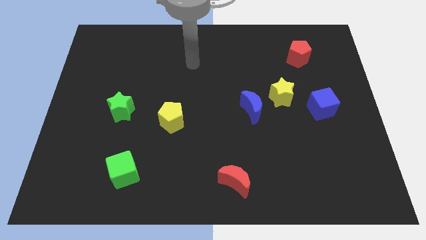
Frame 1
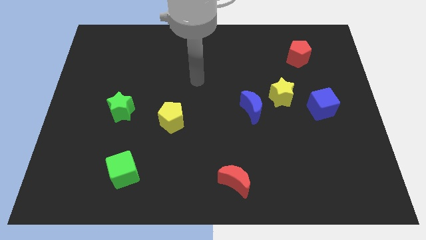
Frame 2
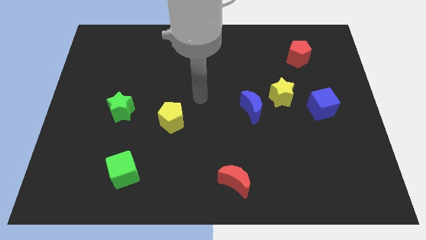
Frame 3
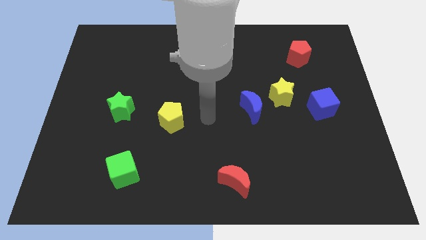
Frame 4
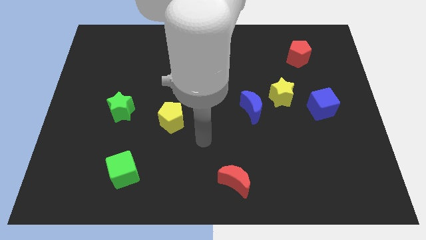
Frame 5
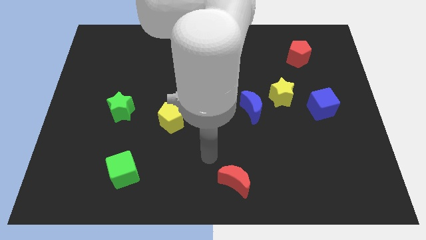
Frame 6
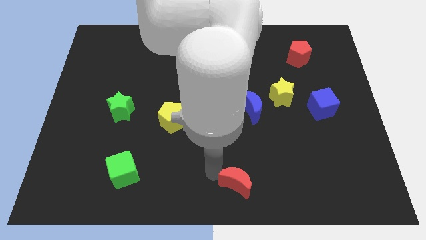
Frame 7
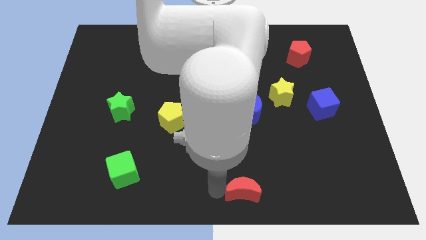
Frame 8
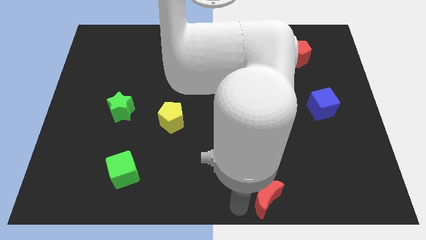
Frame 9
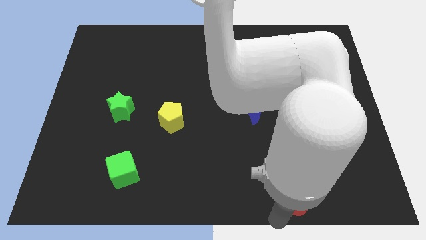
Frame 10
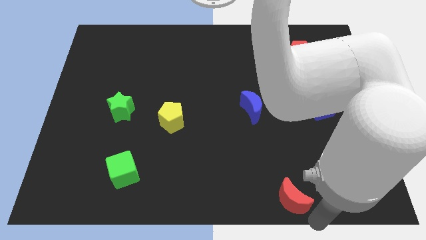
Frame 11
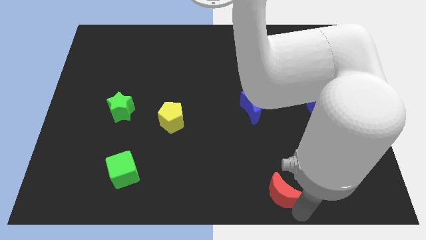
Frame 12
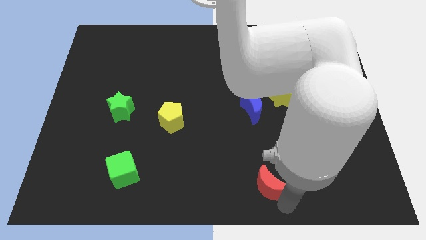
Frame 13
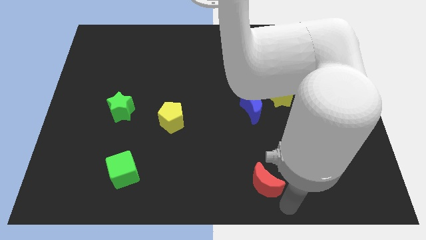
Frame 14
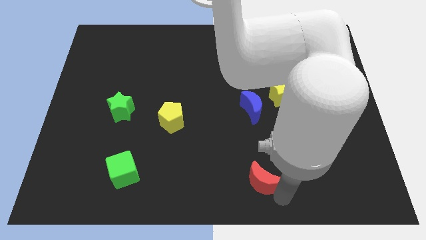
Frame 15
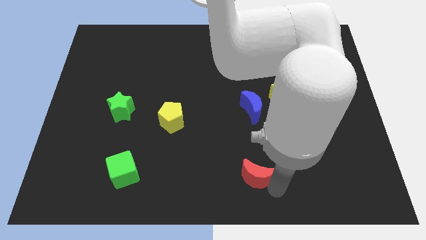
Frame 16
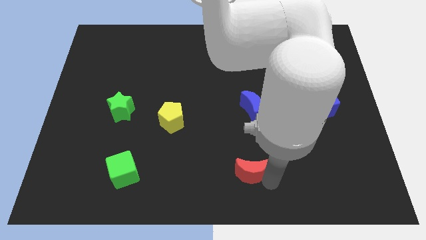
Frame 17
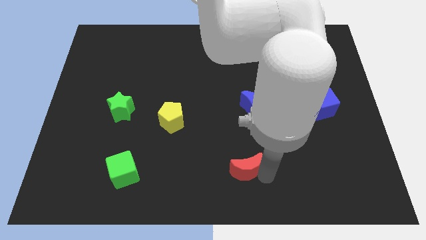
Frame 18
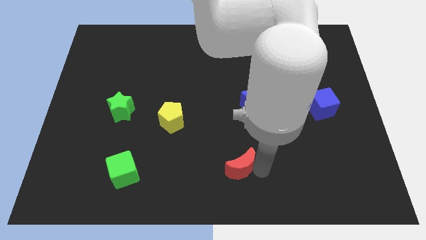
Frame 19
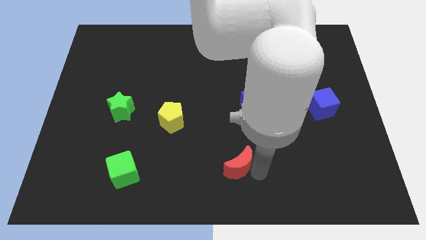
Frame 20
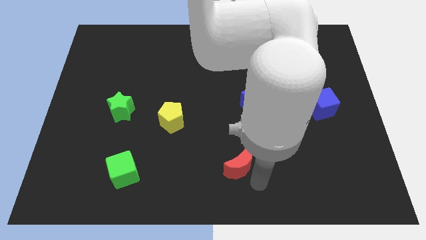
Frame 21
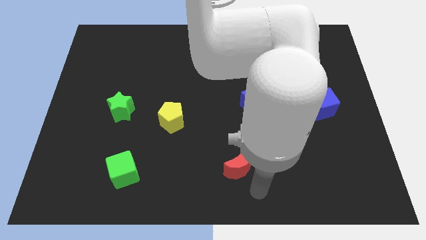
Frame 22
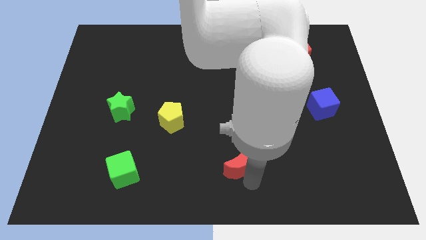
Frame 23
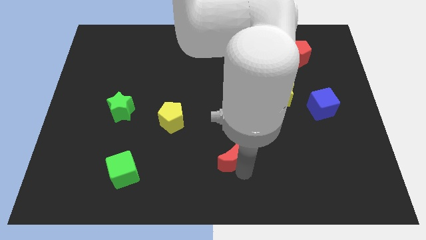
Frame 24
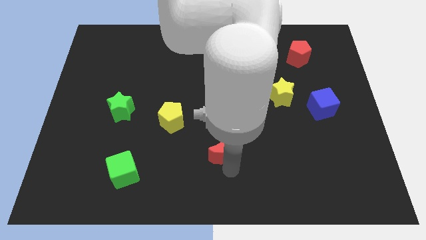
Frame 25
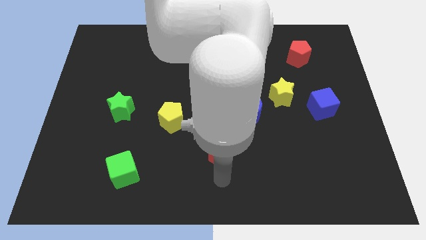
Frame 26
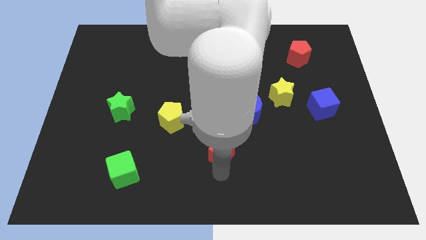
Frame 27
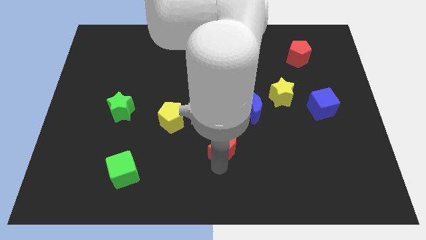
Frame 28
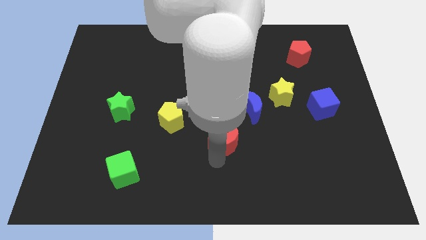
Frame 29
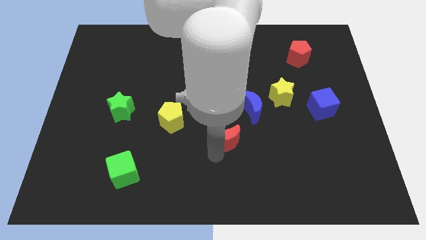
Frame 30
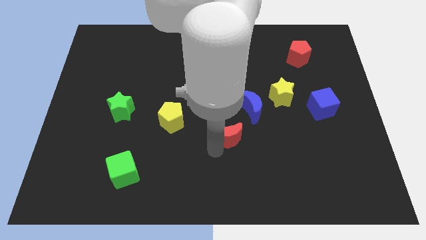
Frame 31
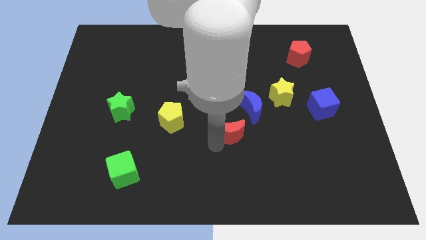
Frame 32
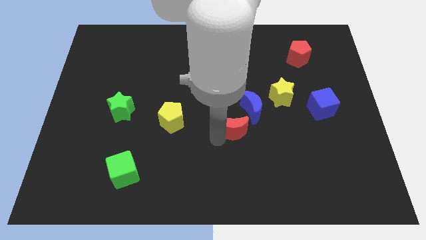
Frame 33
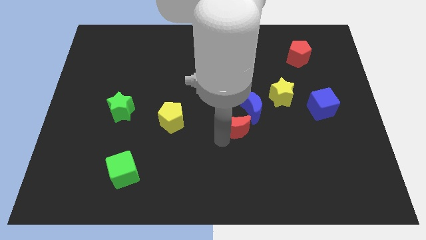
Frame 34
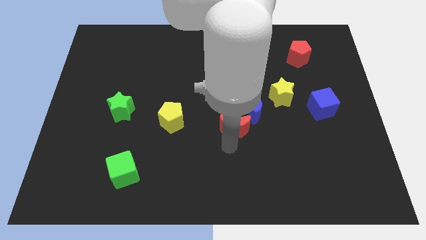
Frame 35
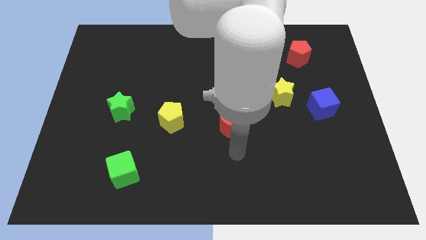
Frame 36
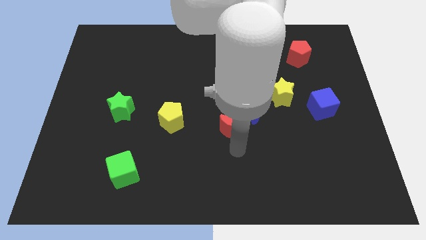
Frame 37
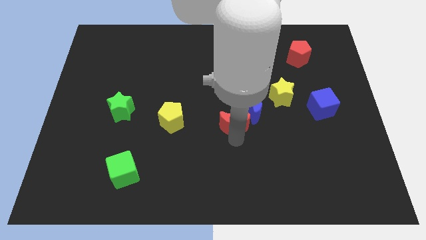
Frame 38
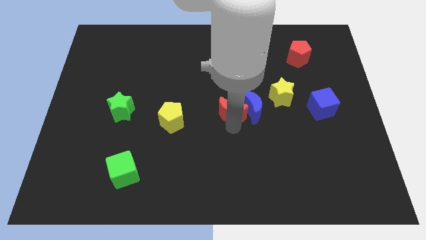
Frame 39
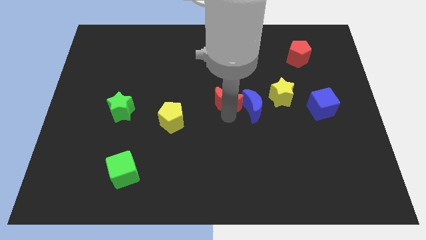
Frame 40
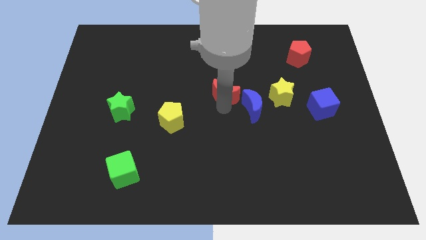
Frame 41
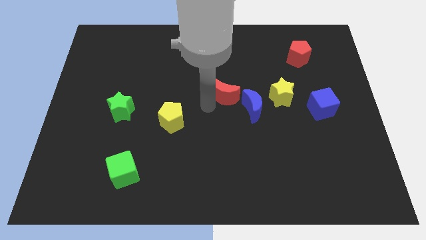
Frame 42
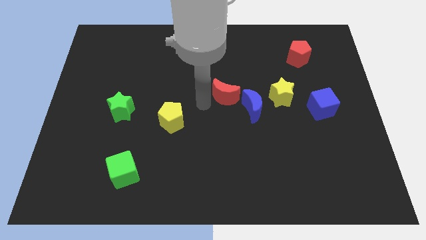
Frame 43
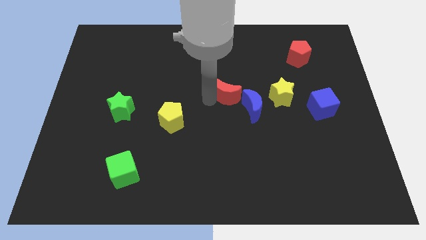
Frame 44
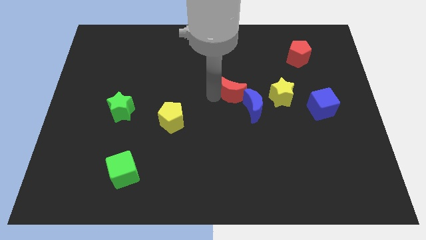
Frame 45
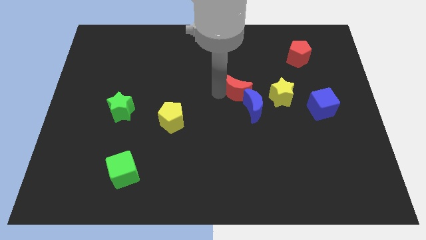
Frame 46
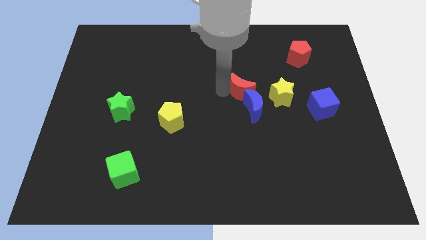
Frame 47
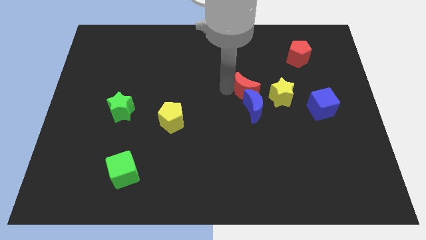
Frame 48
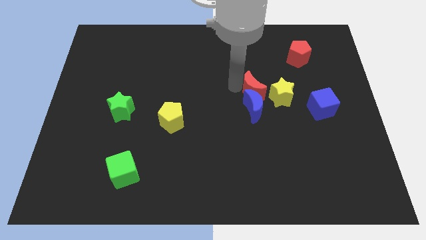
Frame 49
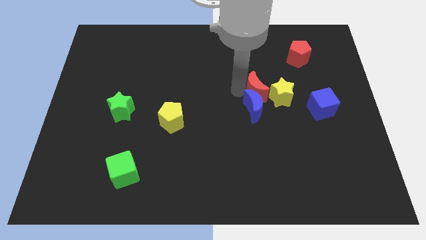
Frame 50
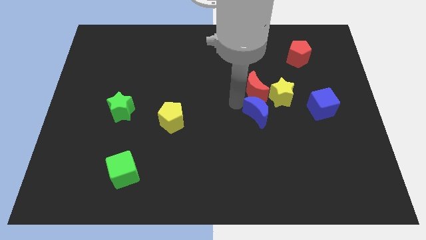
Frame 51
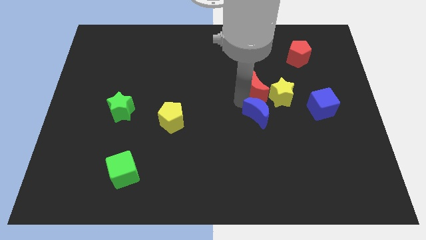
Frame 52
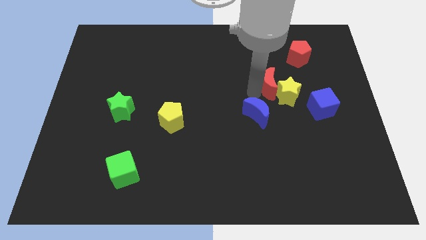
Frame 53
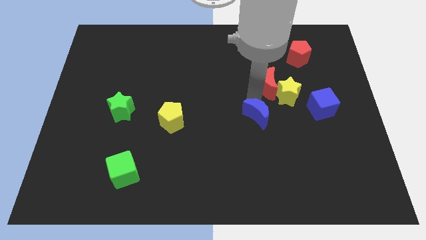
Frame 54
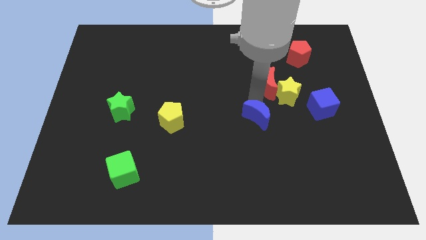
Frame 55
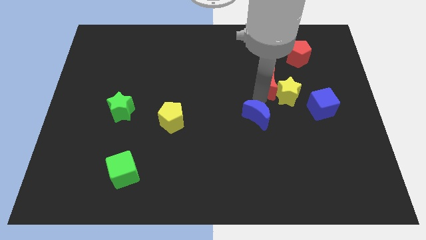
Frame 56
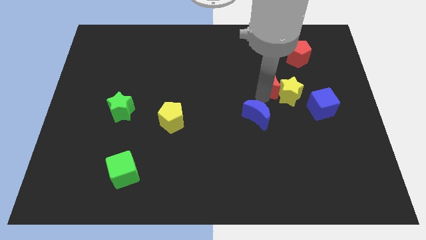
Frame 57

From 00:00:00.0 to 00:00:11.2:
move the red moon to the bottom left side of the red pentagon
